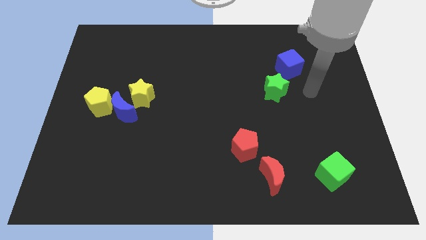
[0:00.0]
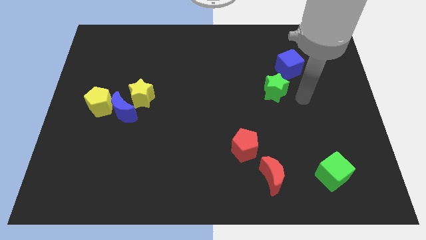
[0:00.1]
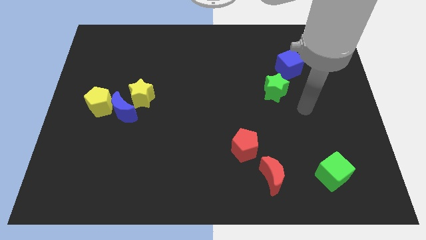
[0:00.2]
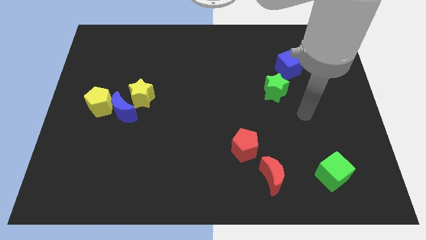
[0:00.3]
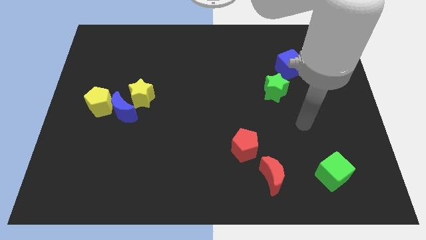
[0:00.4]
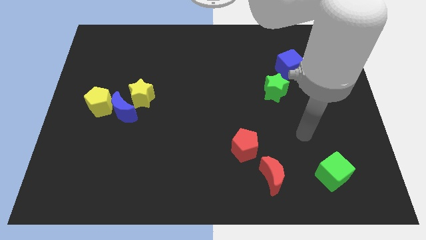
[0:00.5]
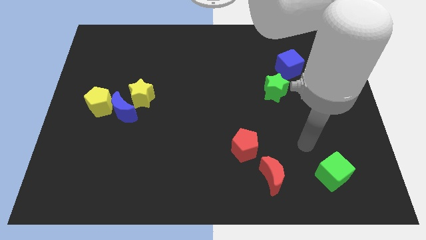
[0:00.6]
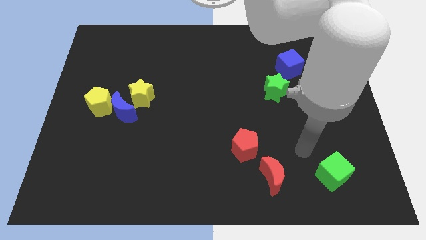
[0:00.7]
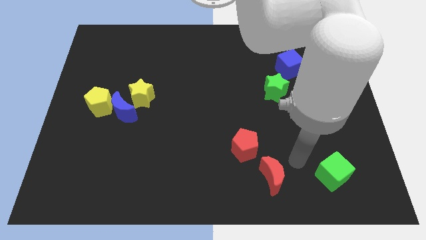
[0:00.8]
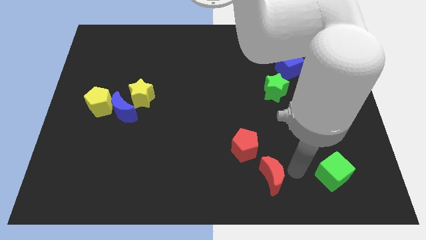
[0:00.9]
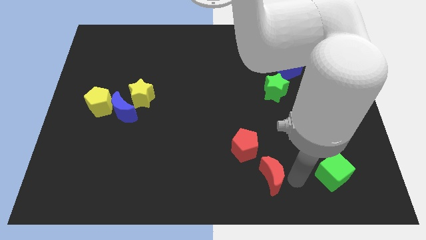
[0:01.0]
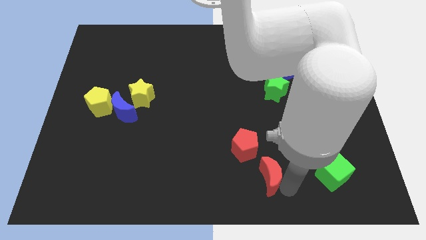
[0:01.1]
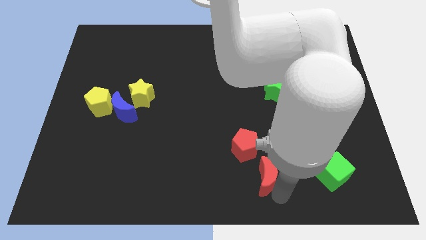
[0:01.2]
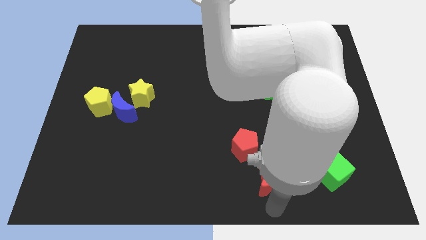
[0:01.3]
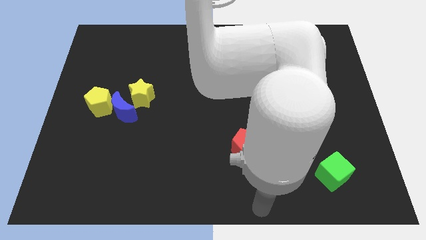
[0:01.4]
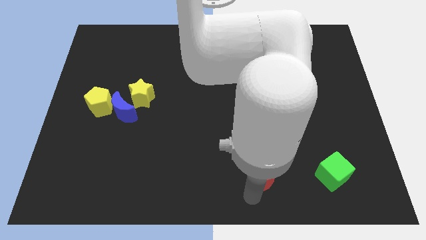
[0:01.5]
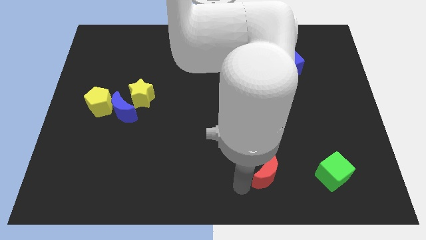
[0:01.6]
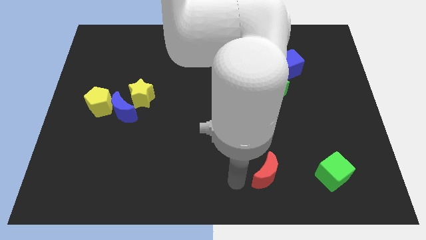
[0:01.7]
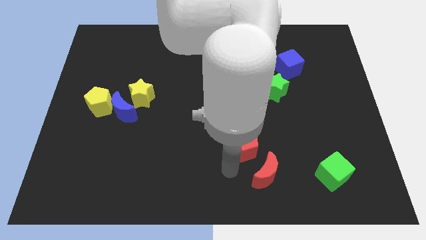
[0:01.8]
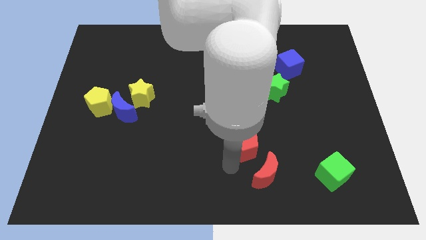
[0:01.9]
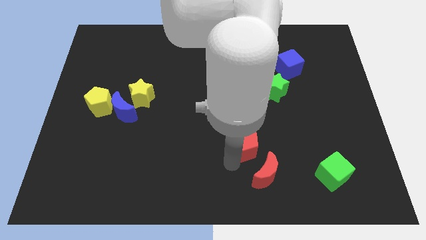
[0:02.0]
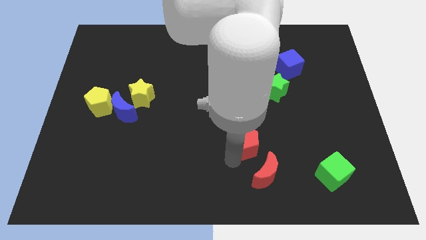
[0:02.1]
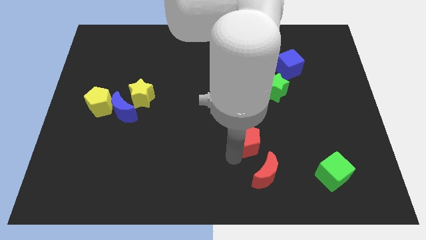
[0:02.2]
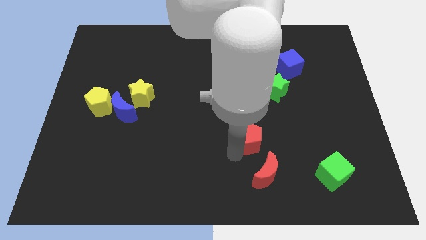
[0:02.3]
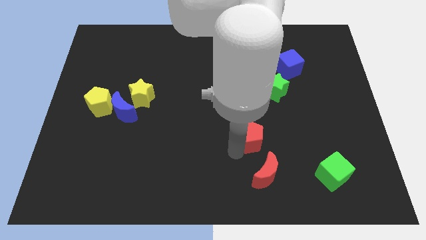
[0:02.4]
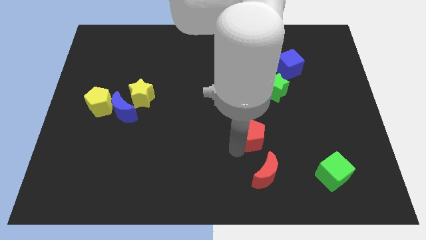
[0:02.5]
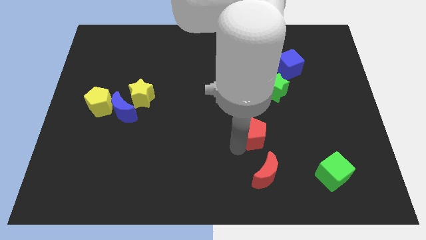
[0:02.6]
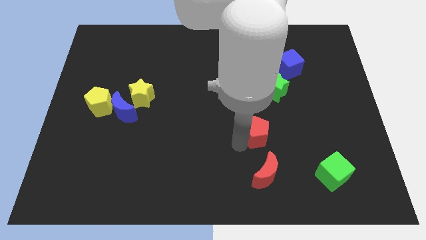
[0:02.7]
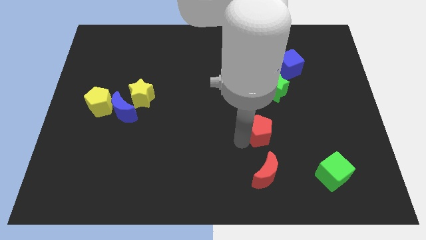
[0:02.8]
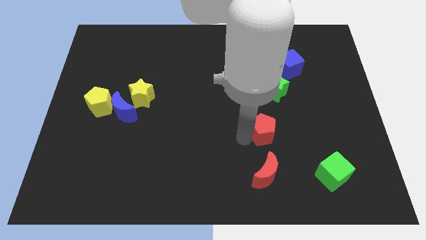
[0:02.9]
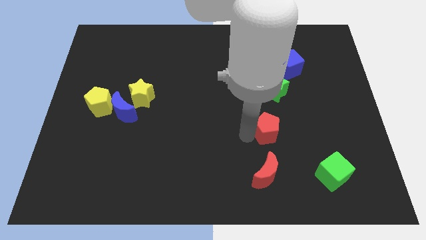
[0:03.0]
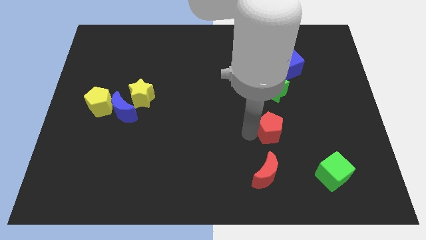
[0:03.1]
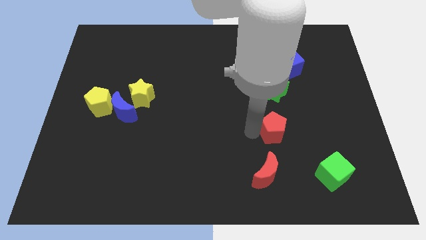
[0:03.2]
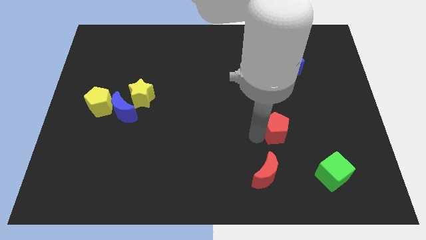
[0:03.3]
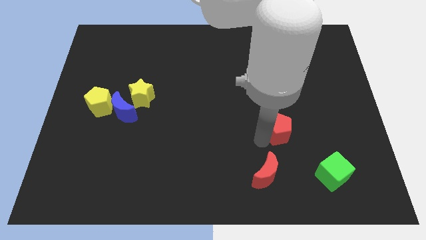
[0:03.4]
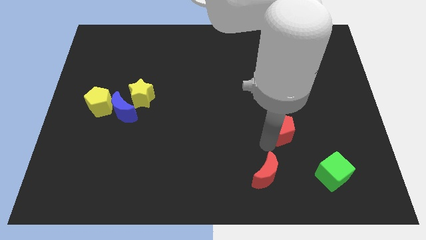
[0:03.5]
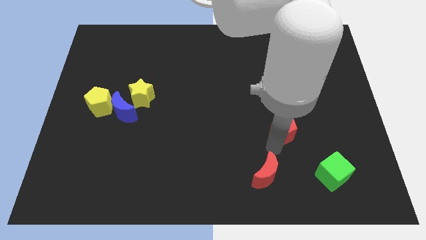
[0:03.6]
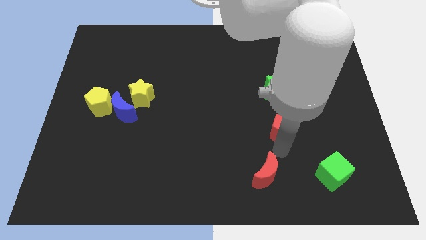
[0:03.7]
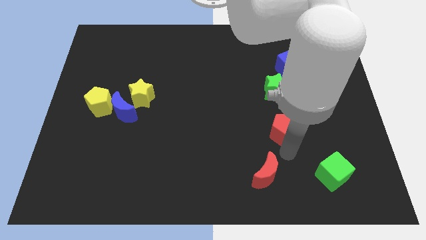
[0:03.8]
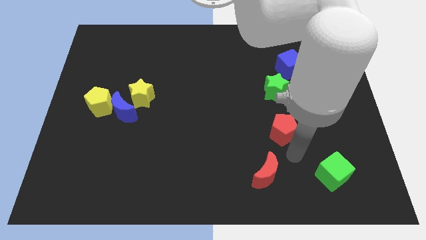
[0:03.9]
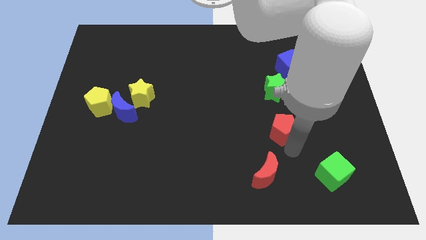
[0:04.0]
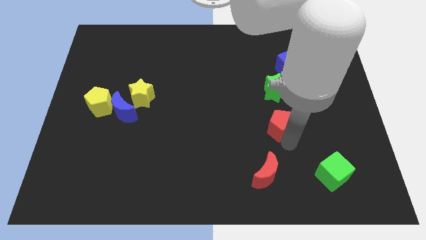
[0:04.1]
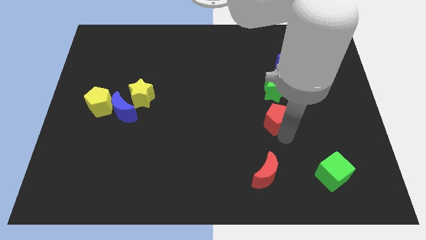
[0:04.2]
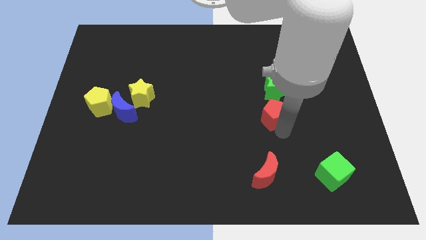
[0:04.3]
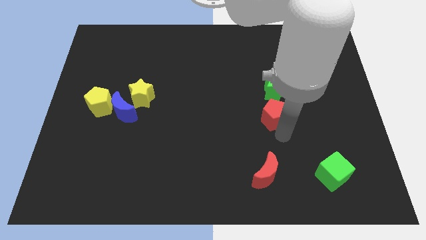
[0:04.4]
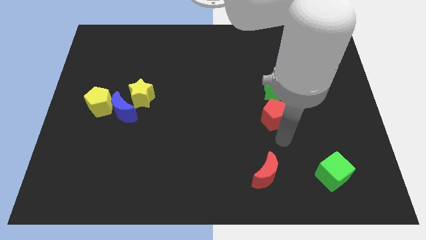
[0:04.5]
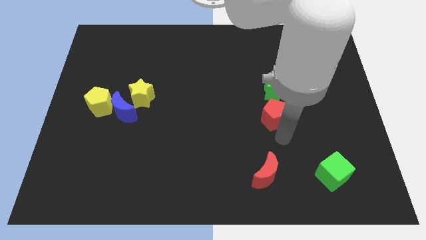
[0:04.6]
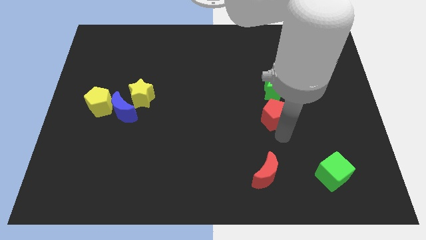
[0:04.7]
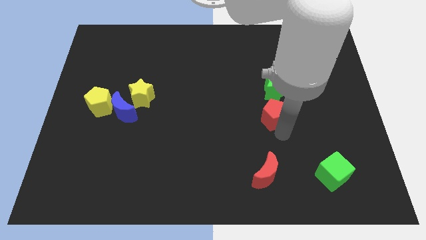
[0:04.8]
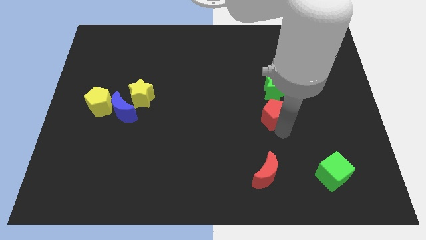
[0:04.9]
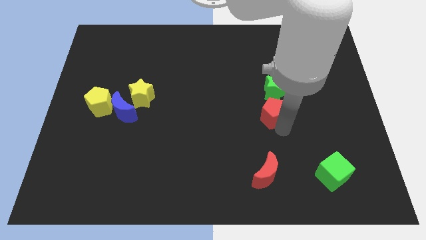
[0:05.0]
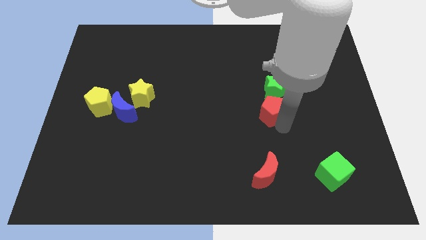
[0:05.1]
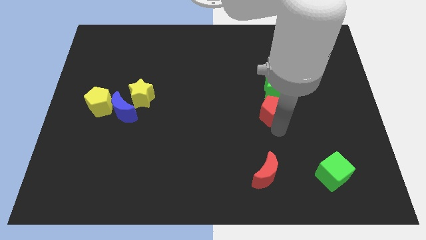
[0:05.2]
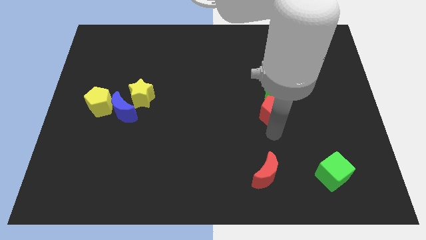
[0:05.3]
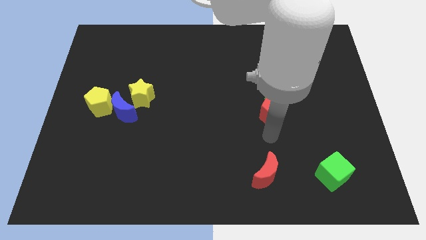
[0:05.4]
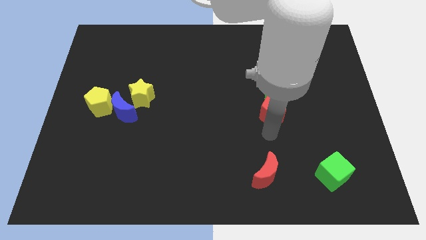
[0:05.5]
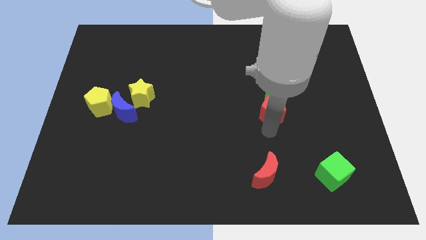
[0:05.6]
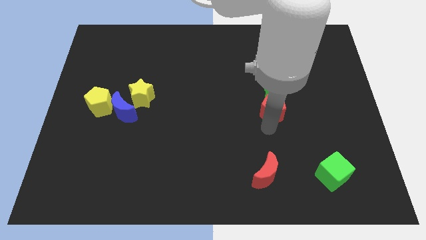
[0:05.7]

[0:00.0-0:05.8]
move the red pentagon close to the green star

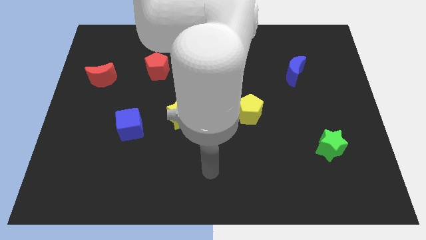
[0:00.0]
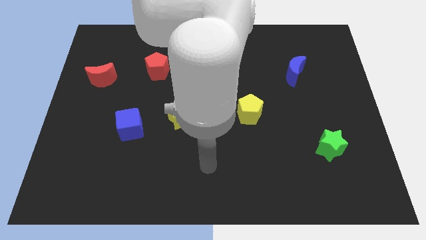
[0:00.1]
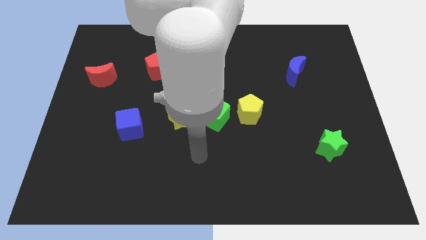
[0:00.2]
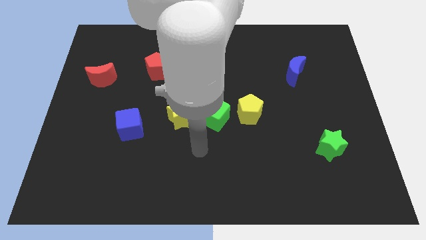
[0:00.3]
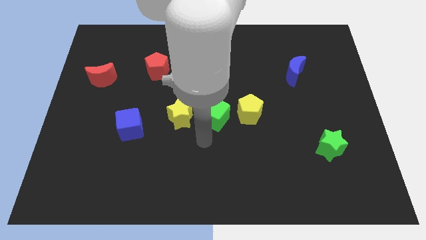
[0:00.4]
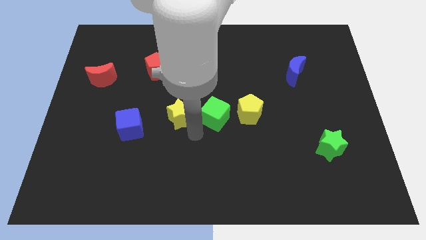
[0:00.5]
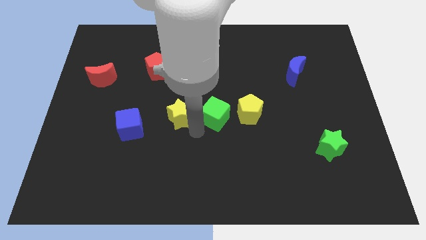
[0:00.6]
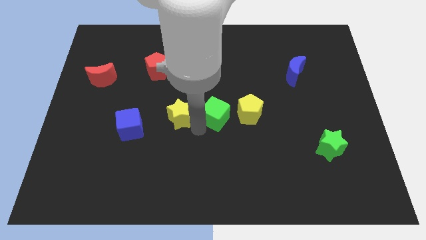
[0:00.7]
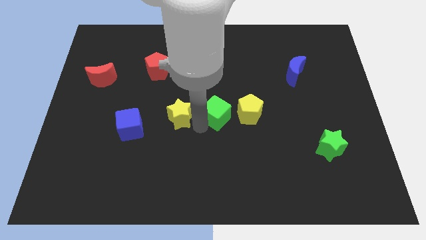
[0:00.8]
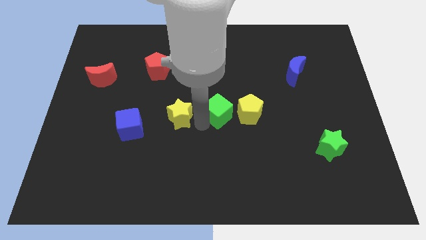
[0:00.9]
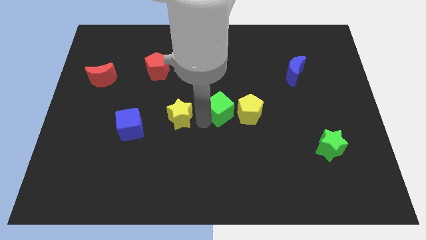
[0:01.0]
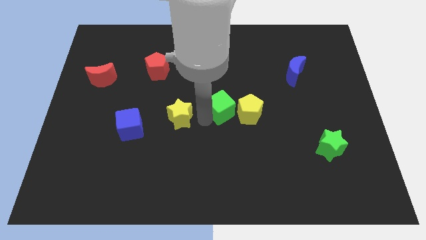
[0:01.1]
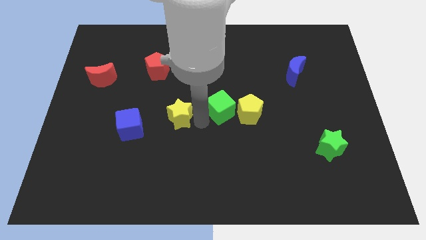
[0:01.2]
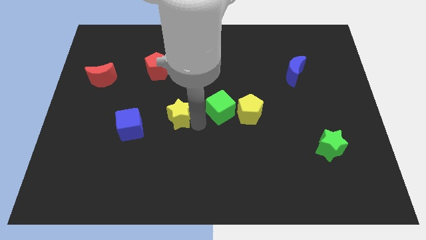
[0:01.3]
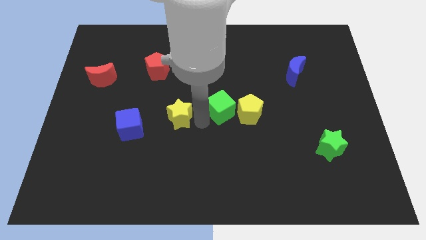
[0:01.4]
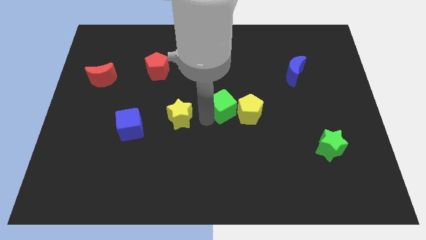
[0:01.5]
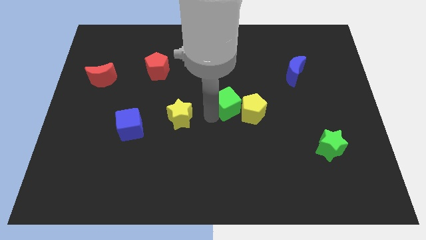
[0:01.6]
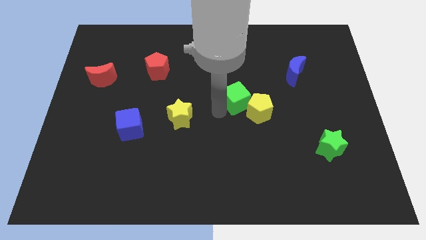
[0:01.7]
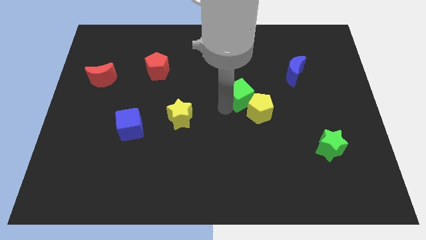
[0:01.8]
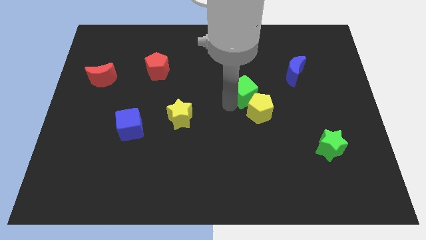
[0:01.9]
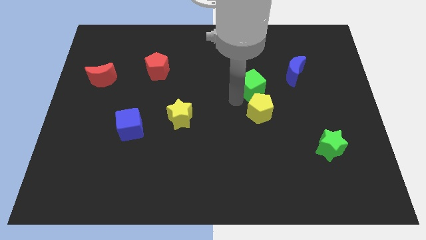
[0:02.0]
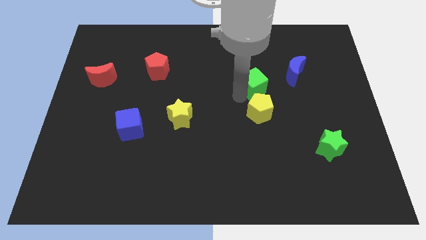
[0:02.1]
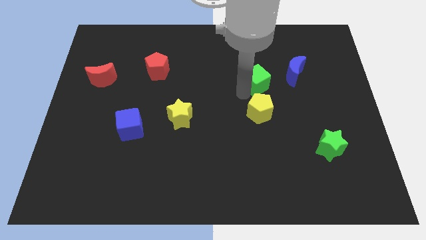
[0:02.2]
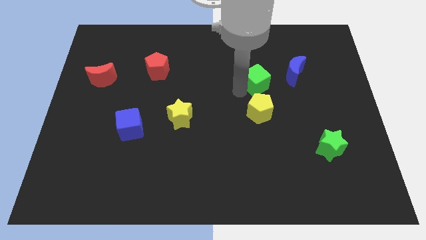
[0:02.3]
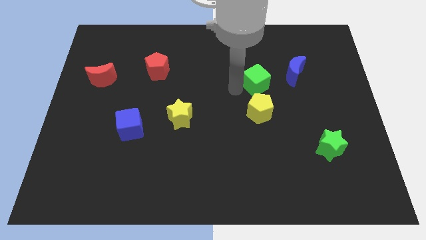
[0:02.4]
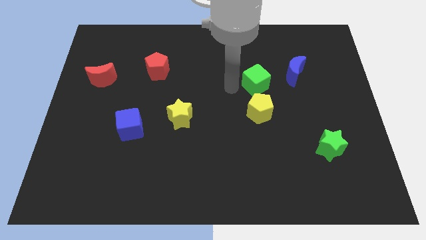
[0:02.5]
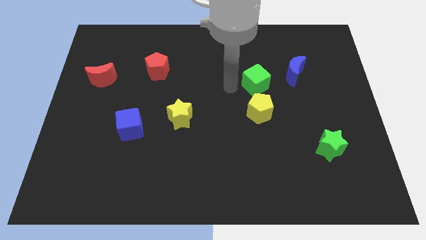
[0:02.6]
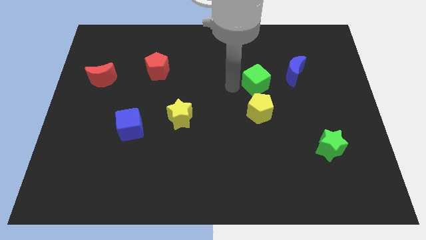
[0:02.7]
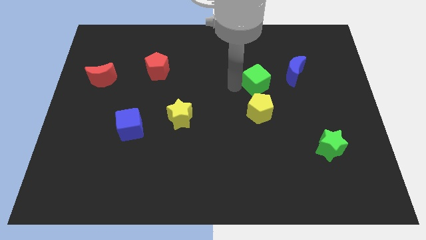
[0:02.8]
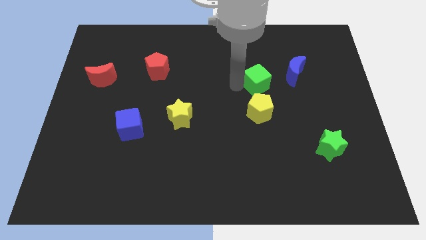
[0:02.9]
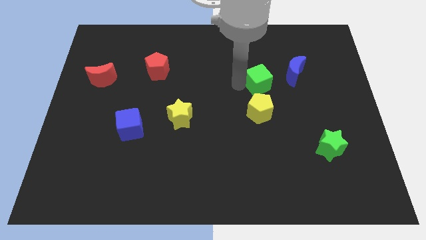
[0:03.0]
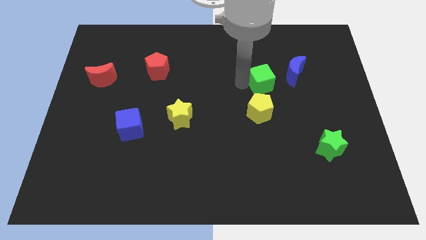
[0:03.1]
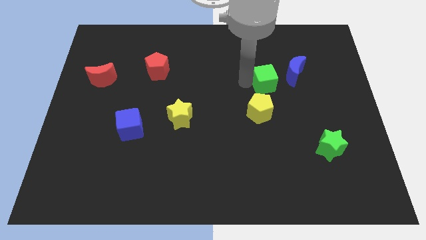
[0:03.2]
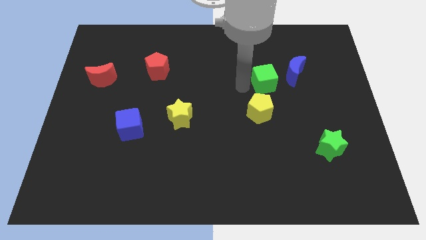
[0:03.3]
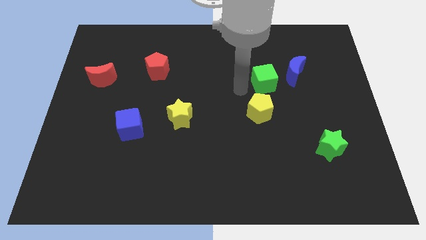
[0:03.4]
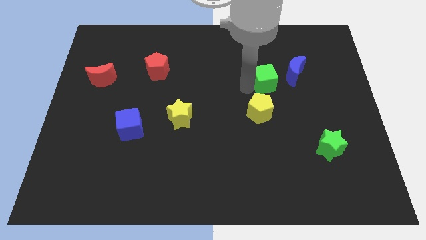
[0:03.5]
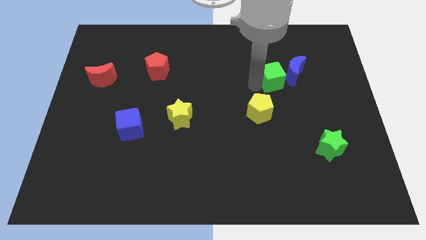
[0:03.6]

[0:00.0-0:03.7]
move the green cube towards the blue moon
